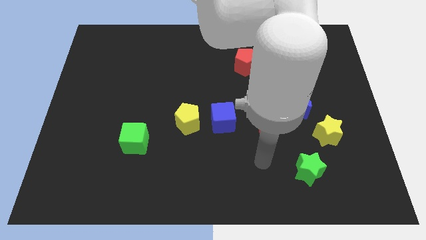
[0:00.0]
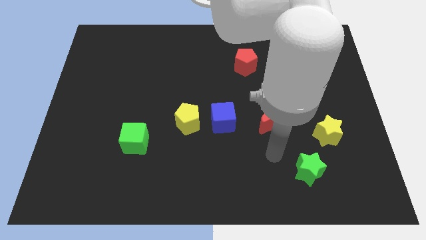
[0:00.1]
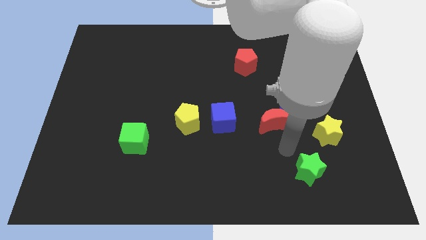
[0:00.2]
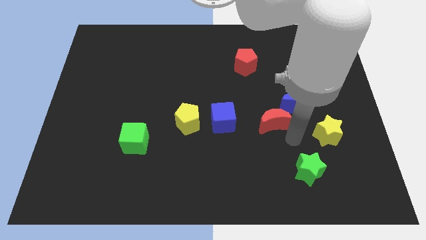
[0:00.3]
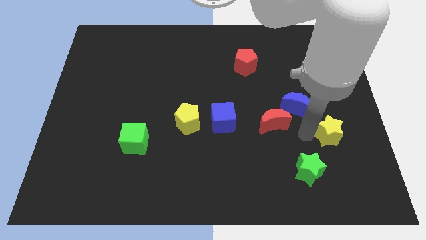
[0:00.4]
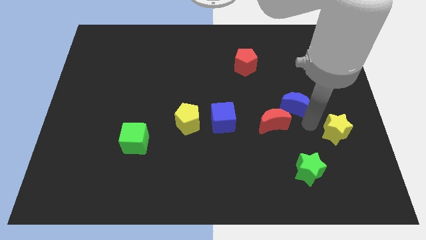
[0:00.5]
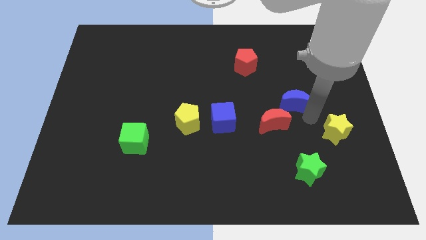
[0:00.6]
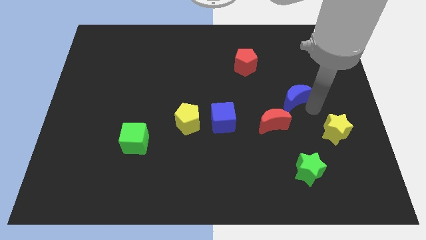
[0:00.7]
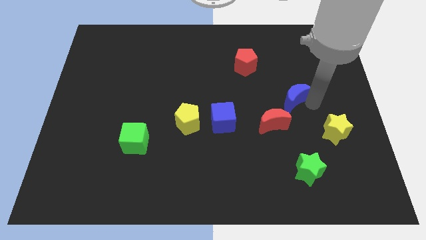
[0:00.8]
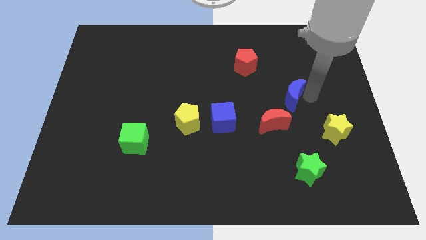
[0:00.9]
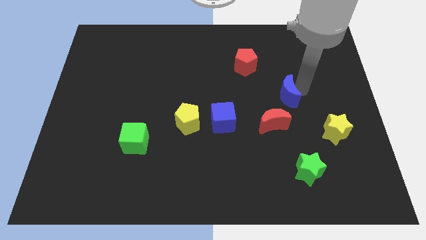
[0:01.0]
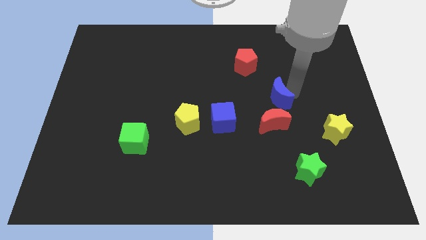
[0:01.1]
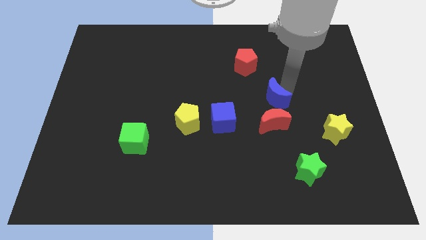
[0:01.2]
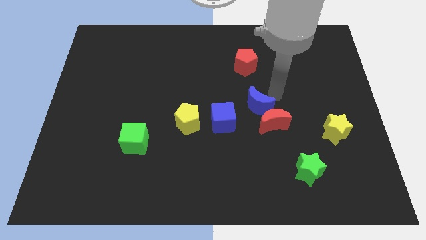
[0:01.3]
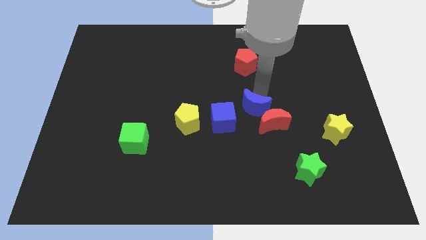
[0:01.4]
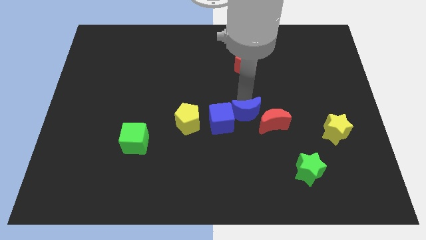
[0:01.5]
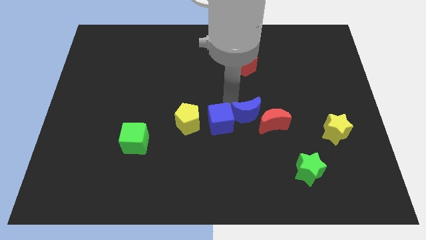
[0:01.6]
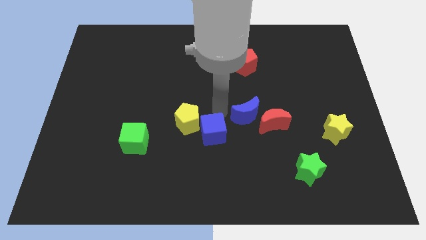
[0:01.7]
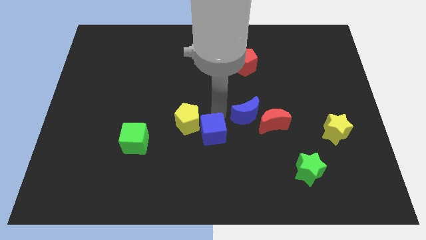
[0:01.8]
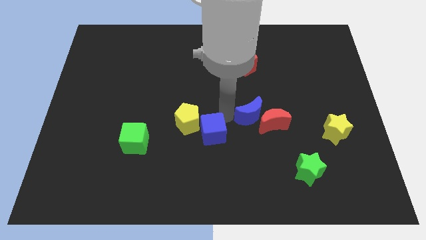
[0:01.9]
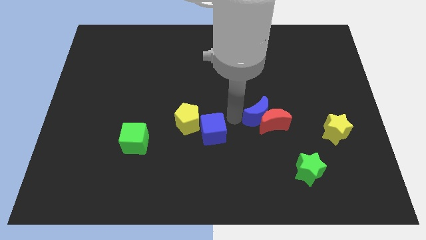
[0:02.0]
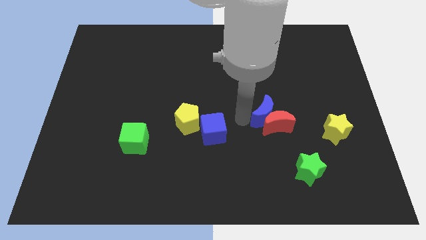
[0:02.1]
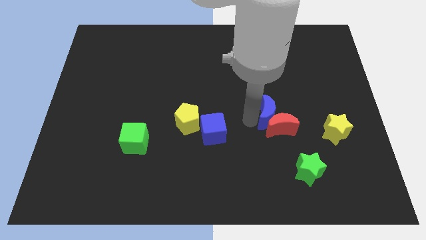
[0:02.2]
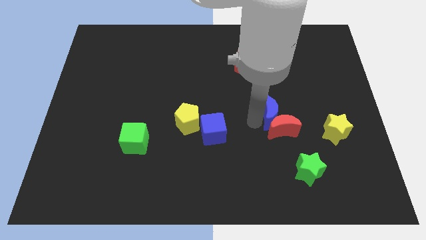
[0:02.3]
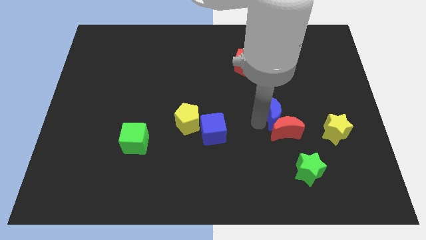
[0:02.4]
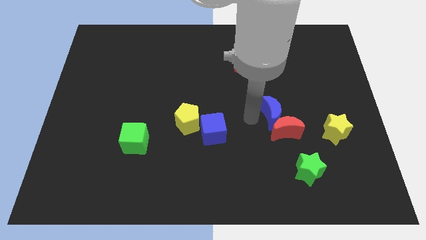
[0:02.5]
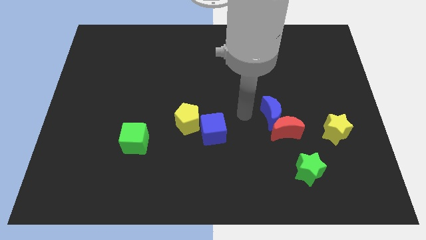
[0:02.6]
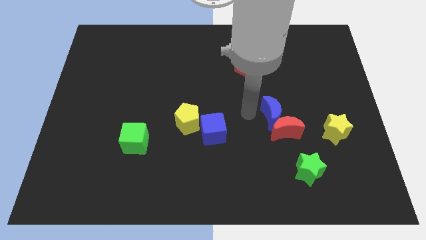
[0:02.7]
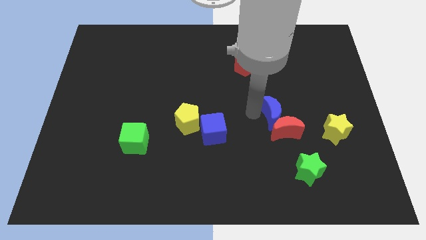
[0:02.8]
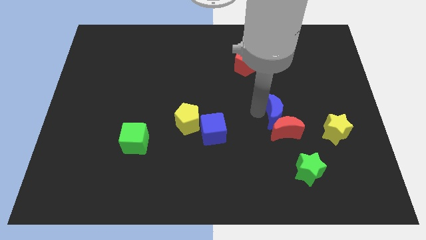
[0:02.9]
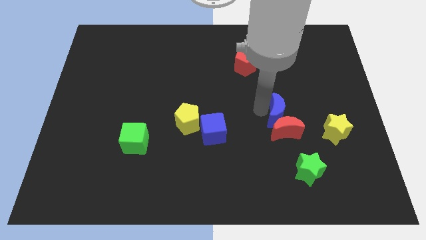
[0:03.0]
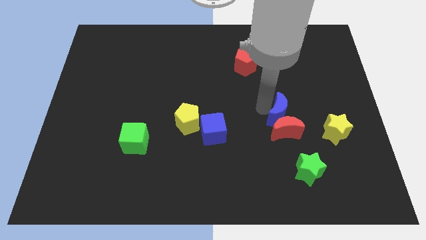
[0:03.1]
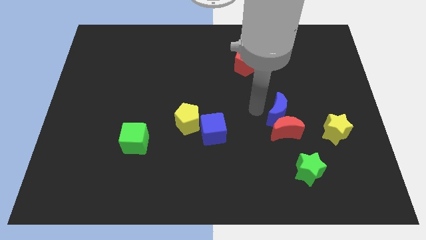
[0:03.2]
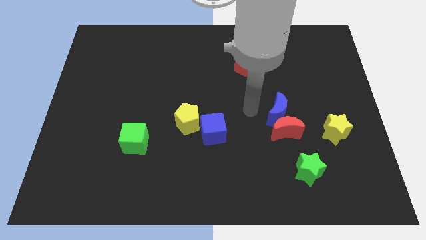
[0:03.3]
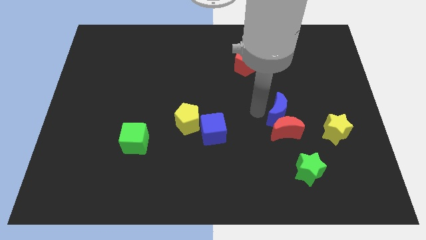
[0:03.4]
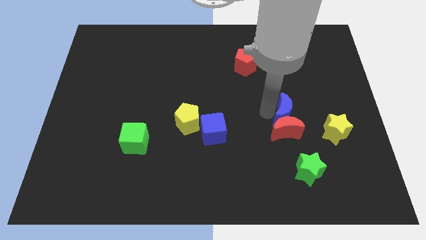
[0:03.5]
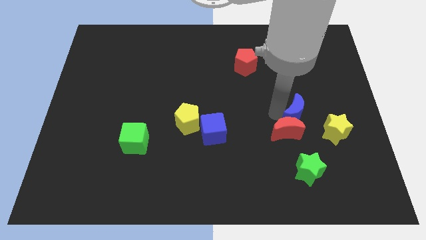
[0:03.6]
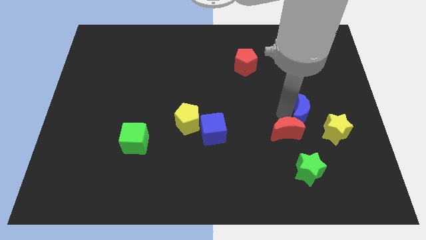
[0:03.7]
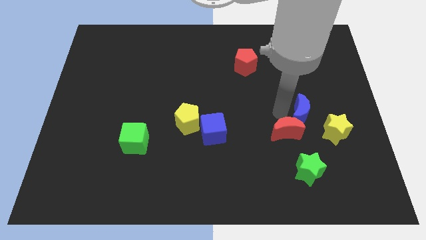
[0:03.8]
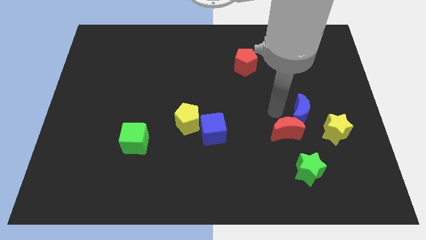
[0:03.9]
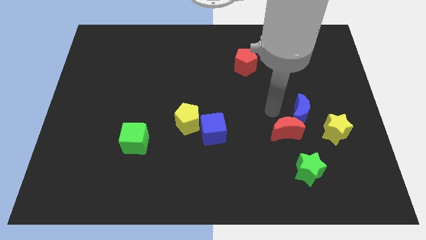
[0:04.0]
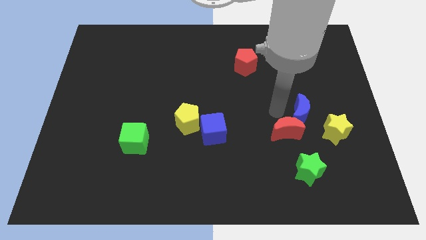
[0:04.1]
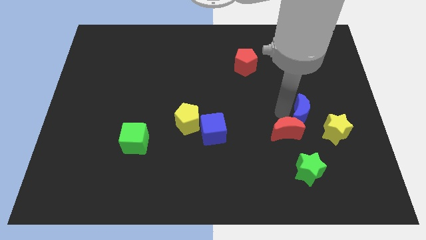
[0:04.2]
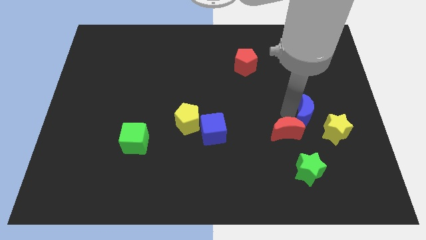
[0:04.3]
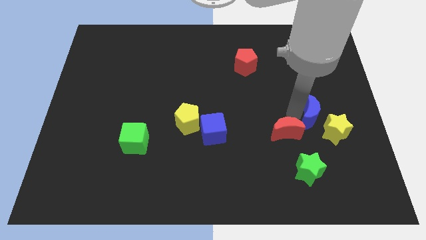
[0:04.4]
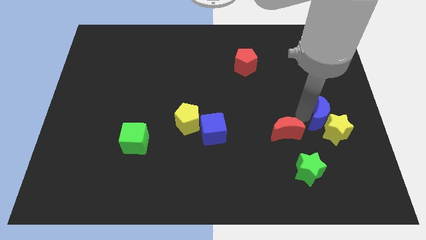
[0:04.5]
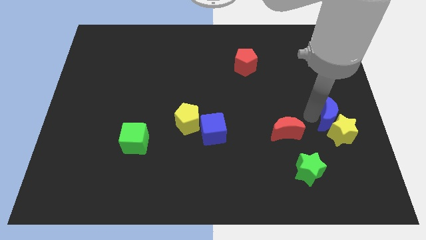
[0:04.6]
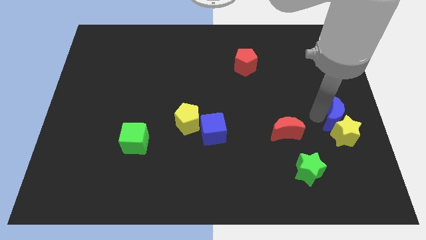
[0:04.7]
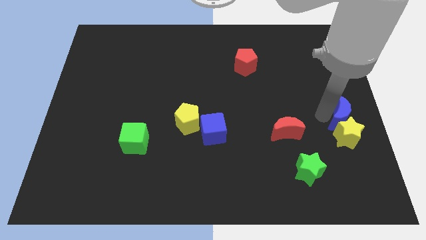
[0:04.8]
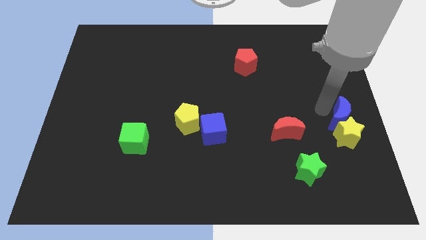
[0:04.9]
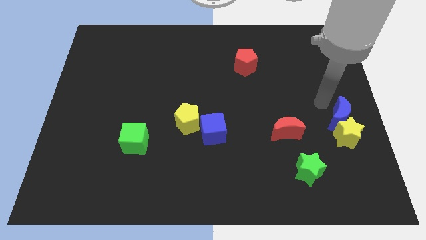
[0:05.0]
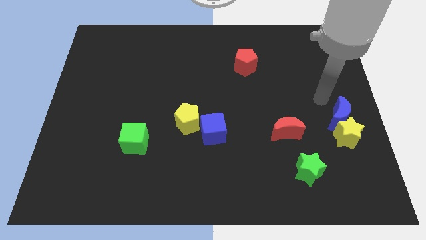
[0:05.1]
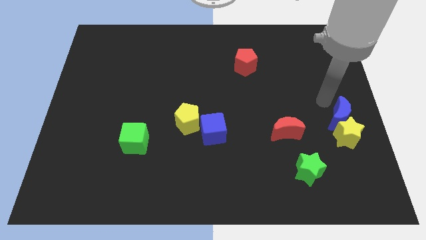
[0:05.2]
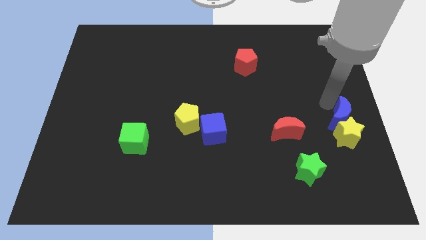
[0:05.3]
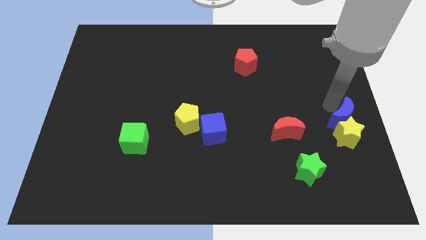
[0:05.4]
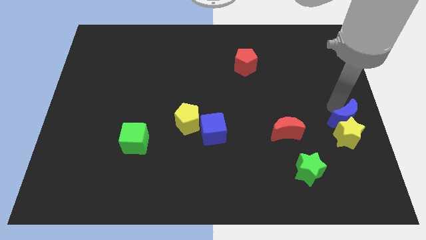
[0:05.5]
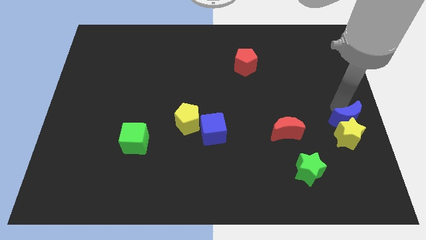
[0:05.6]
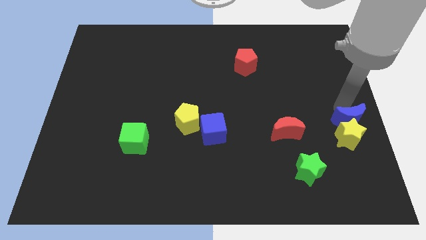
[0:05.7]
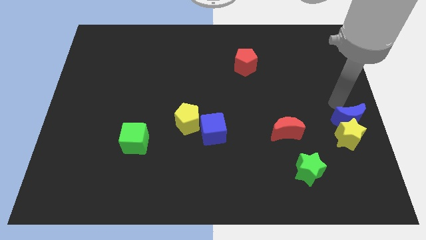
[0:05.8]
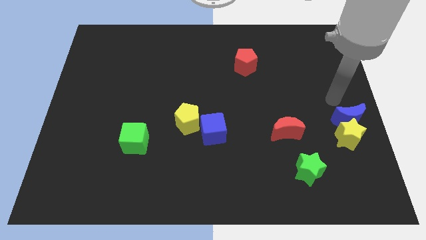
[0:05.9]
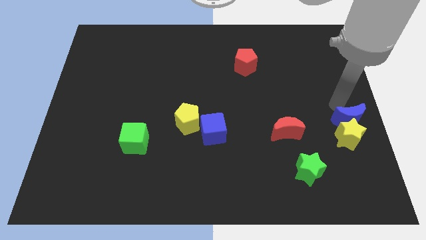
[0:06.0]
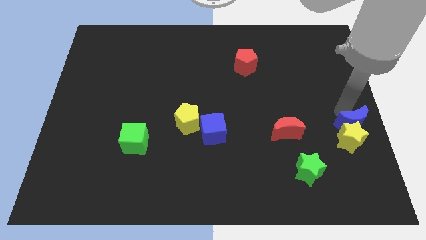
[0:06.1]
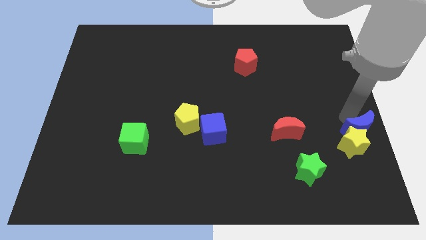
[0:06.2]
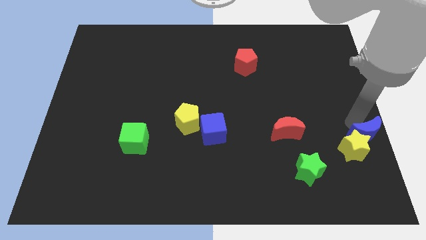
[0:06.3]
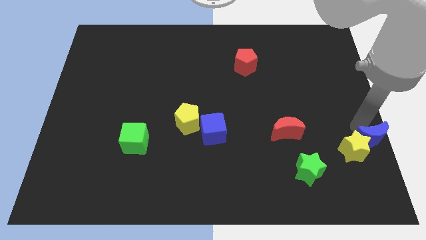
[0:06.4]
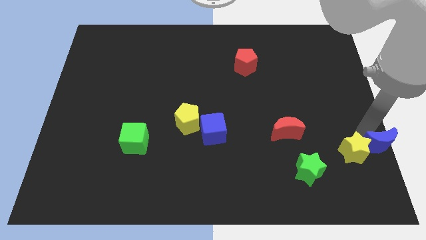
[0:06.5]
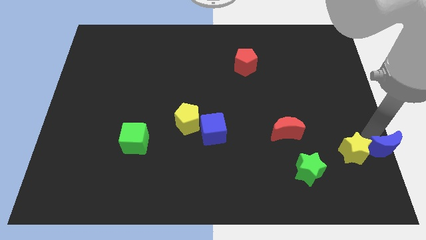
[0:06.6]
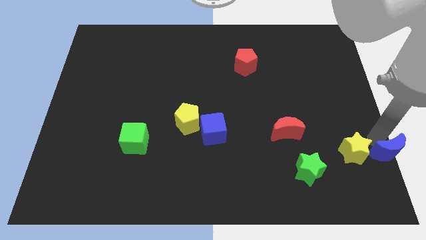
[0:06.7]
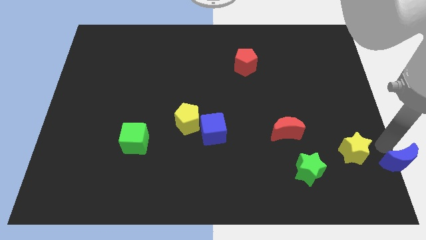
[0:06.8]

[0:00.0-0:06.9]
put the blue moon to the bottom right corner
